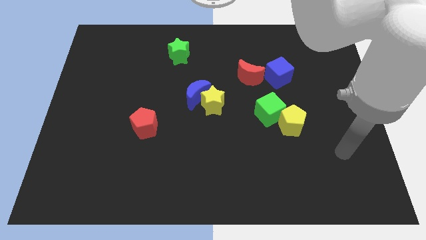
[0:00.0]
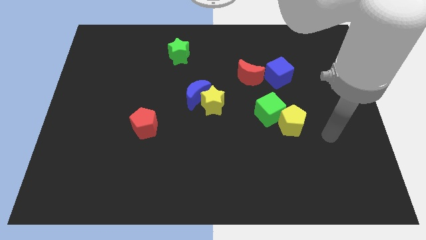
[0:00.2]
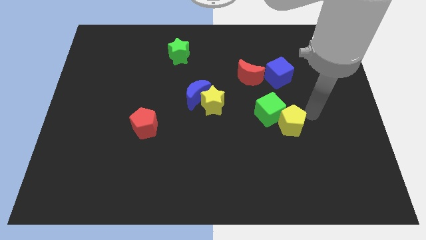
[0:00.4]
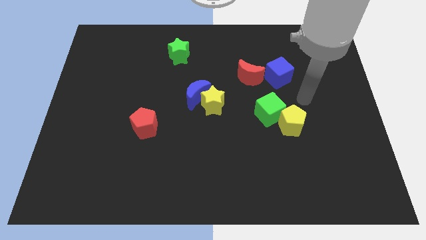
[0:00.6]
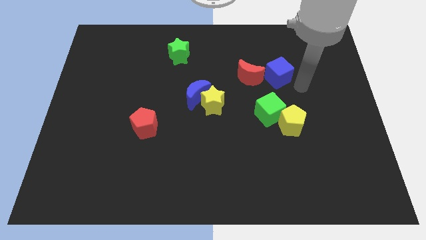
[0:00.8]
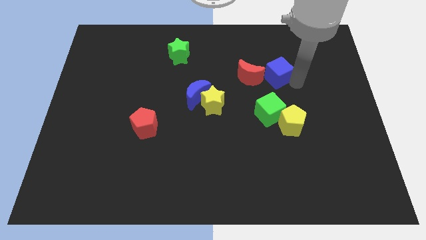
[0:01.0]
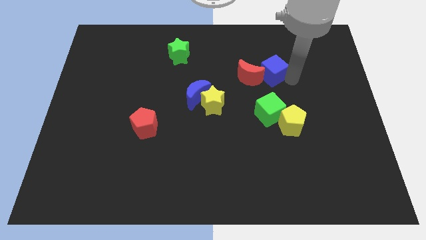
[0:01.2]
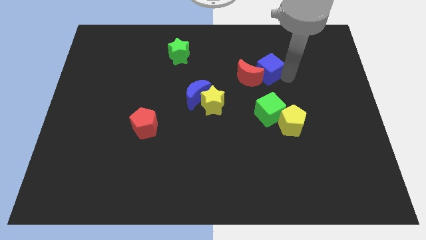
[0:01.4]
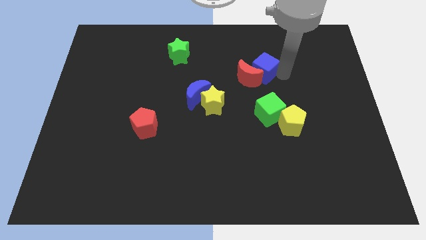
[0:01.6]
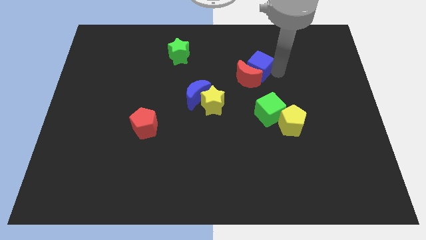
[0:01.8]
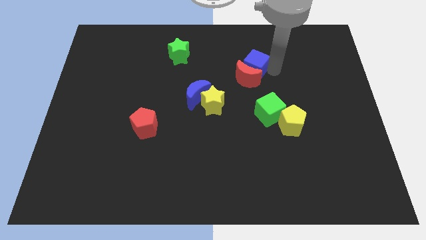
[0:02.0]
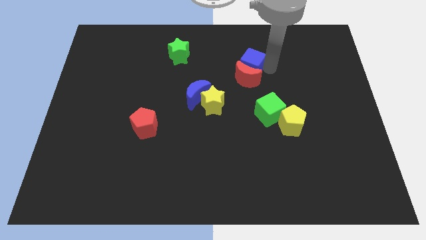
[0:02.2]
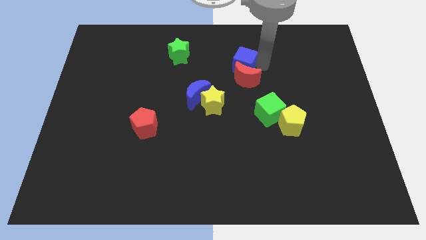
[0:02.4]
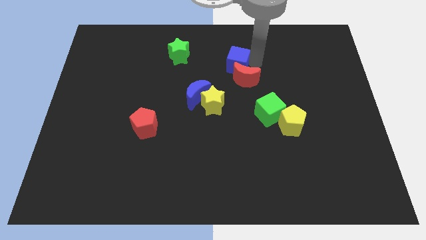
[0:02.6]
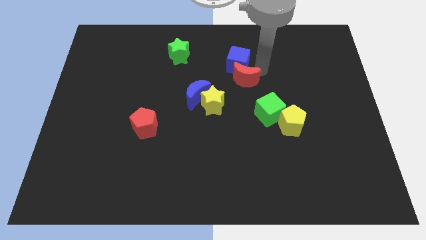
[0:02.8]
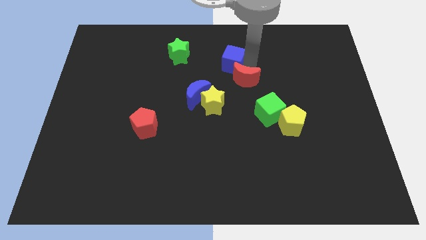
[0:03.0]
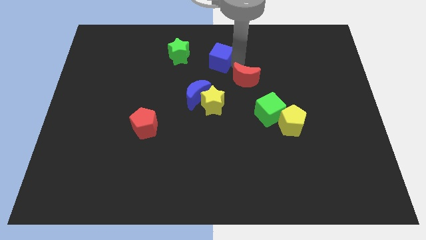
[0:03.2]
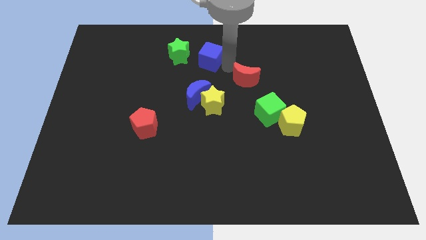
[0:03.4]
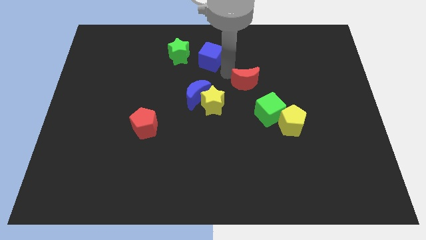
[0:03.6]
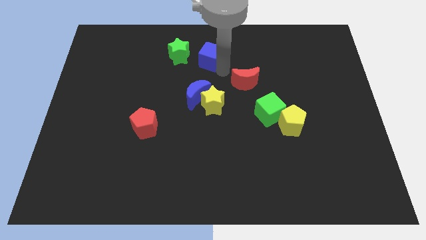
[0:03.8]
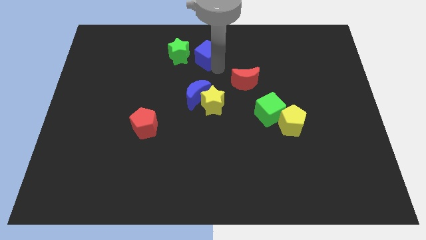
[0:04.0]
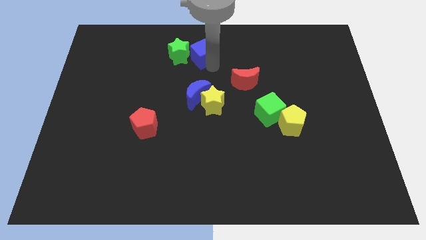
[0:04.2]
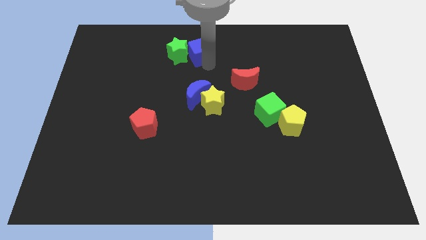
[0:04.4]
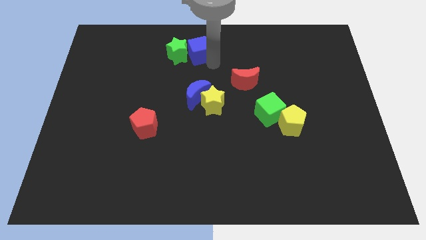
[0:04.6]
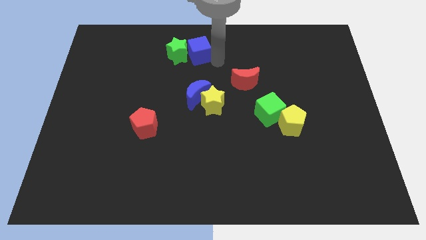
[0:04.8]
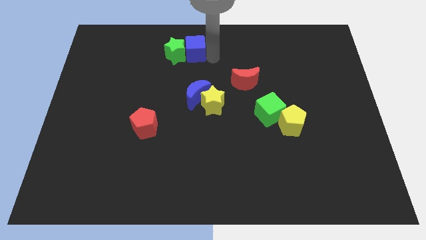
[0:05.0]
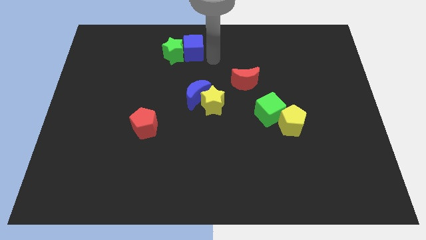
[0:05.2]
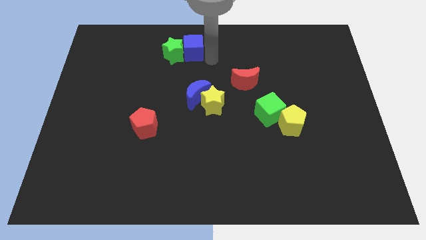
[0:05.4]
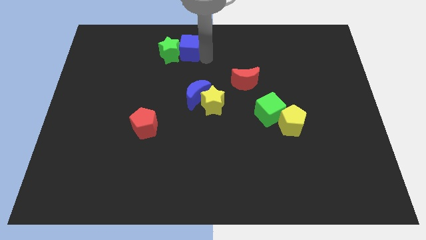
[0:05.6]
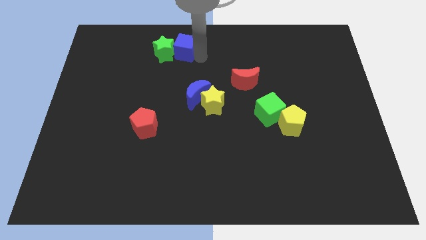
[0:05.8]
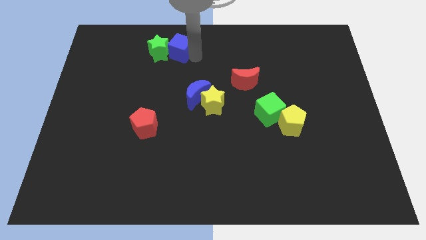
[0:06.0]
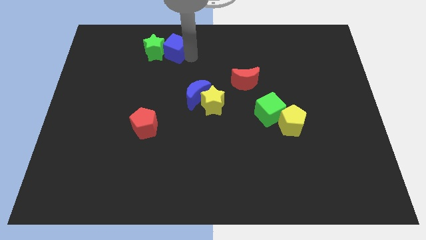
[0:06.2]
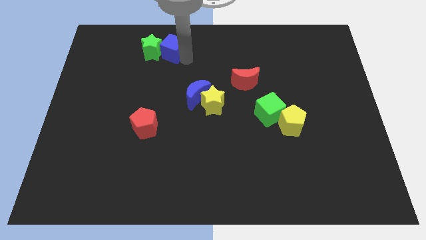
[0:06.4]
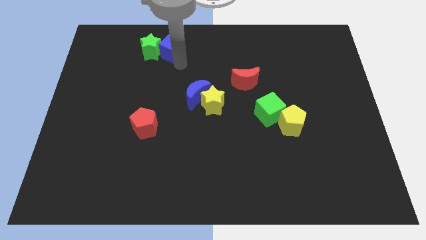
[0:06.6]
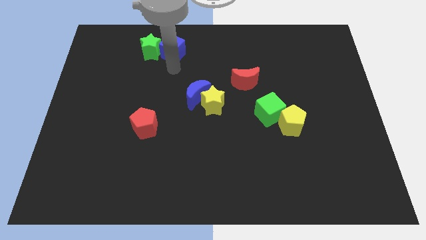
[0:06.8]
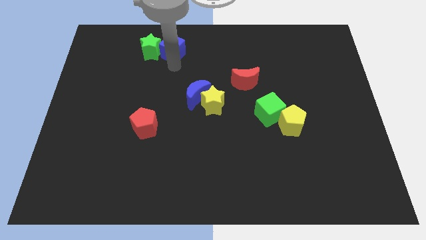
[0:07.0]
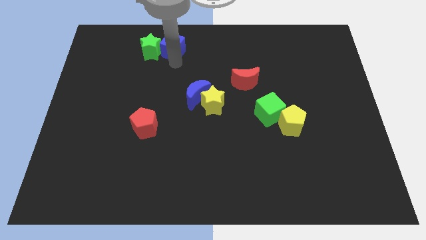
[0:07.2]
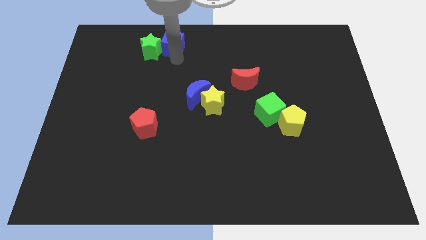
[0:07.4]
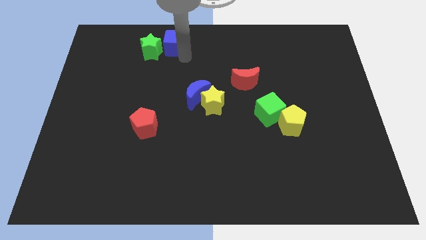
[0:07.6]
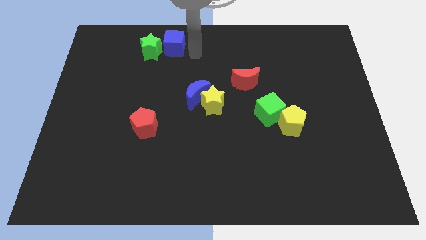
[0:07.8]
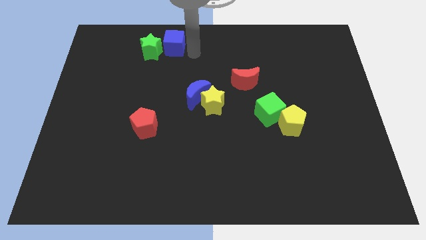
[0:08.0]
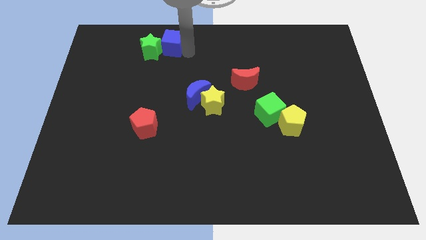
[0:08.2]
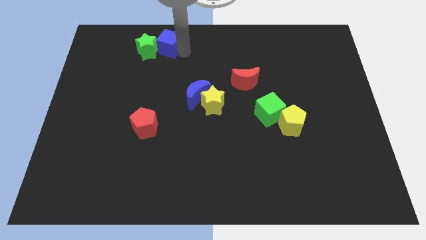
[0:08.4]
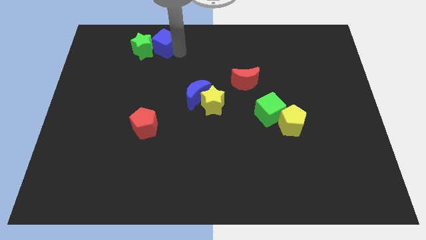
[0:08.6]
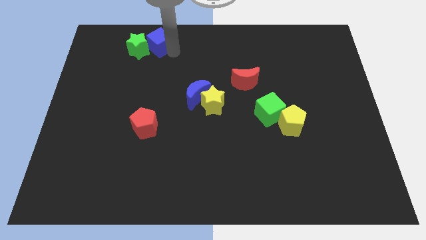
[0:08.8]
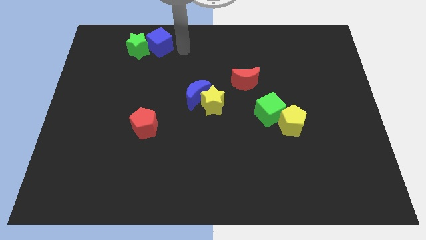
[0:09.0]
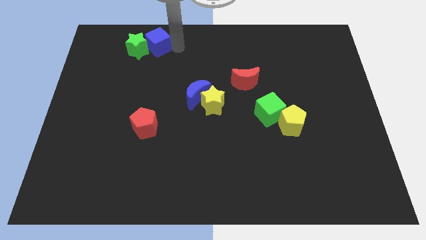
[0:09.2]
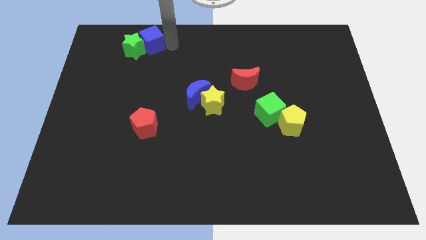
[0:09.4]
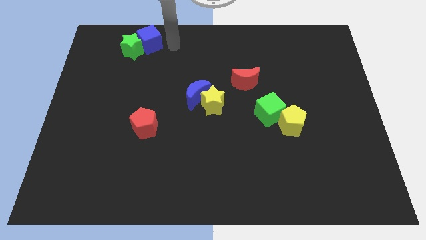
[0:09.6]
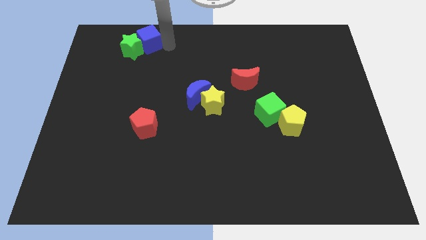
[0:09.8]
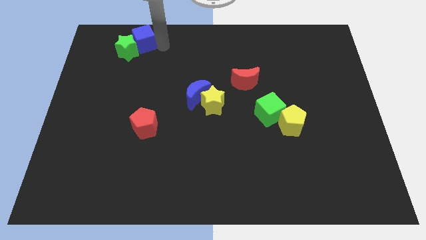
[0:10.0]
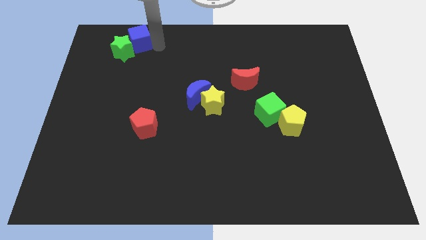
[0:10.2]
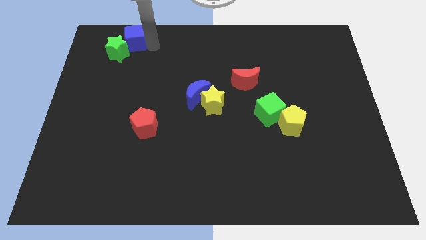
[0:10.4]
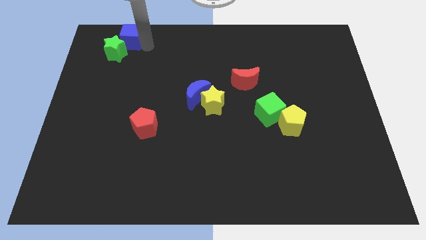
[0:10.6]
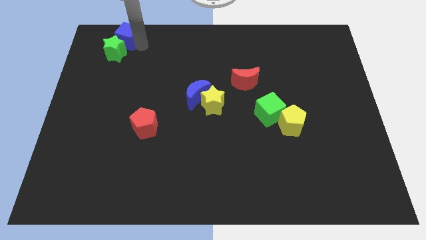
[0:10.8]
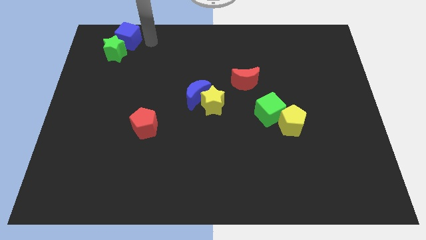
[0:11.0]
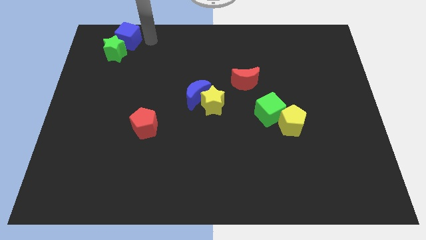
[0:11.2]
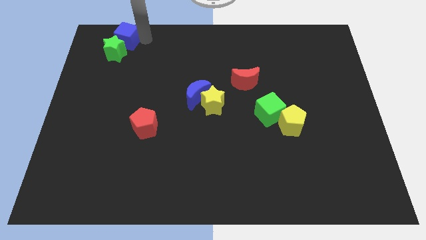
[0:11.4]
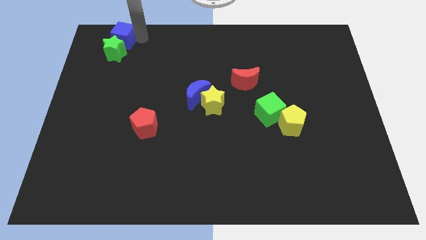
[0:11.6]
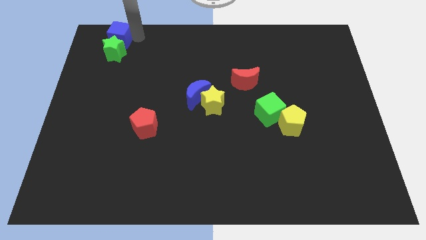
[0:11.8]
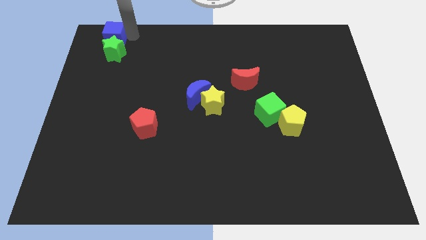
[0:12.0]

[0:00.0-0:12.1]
put the blue cube to the top left corner

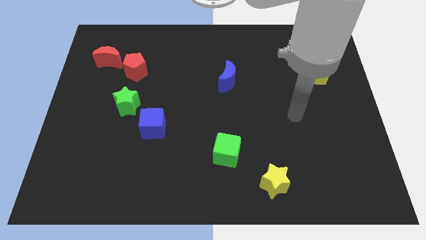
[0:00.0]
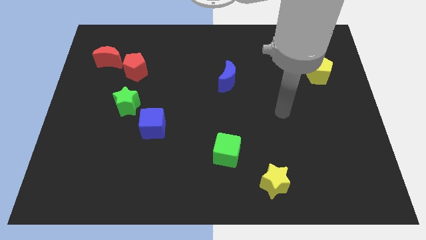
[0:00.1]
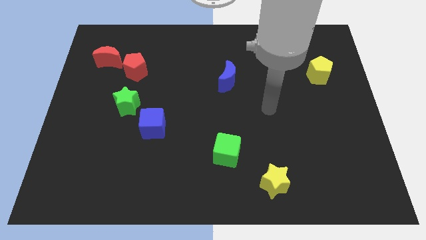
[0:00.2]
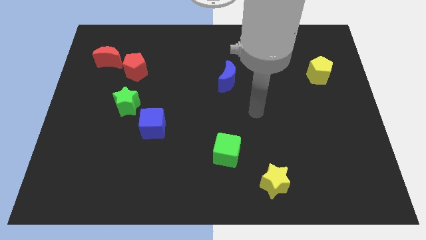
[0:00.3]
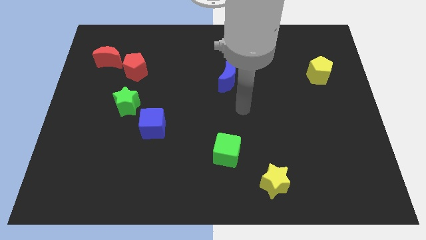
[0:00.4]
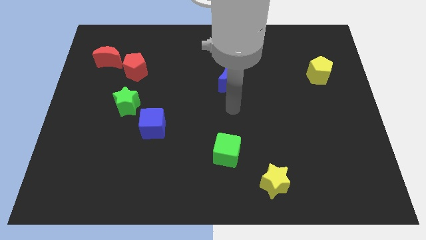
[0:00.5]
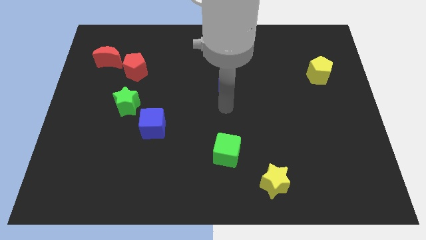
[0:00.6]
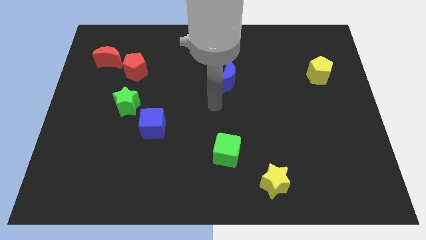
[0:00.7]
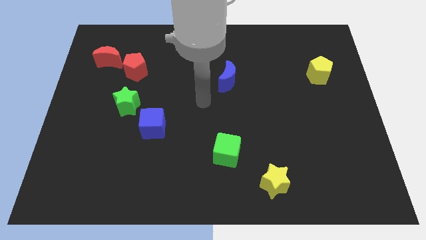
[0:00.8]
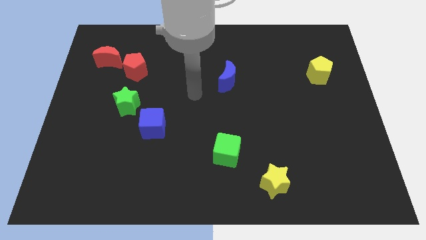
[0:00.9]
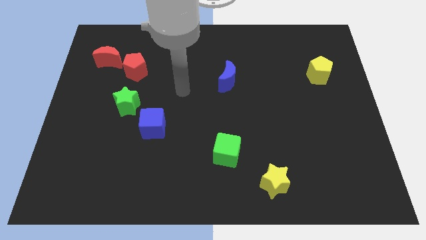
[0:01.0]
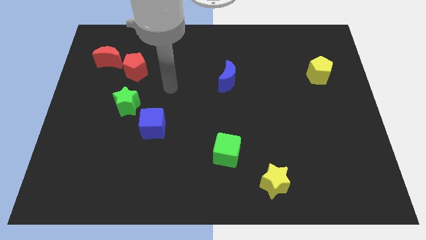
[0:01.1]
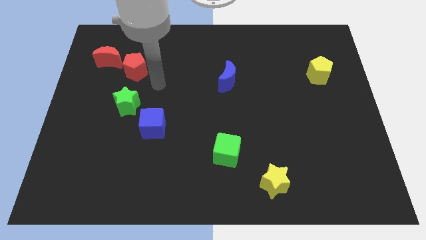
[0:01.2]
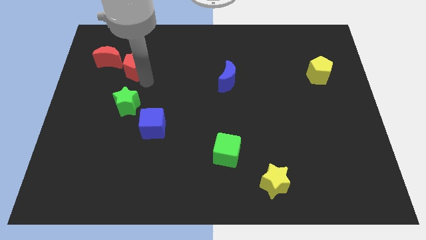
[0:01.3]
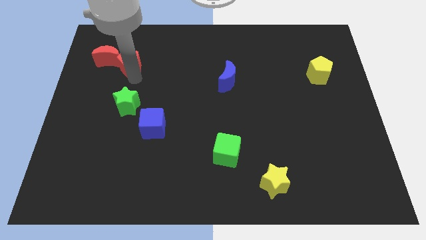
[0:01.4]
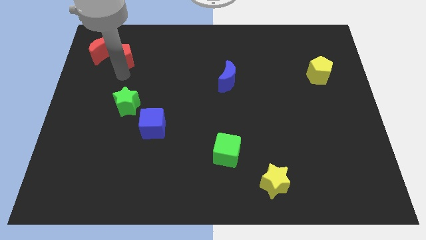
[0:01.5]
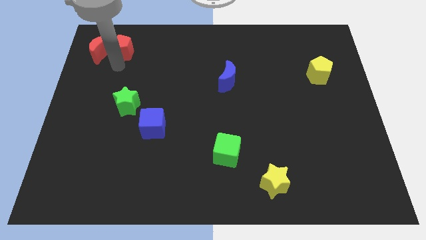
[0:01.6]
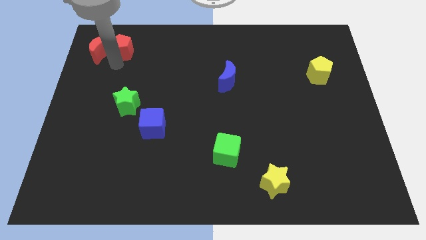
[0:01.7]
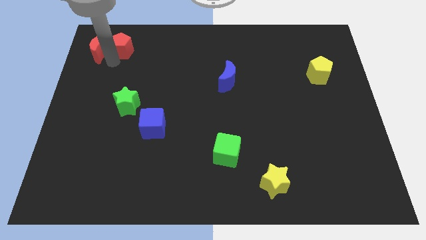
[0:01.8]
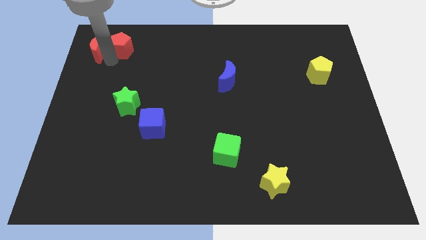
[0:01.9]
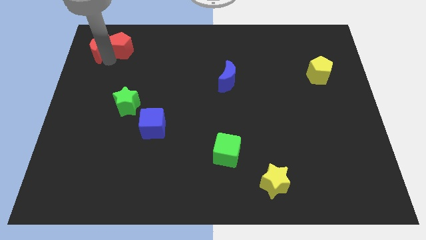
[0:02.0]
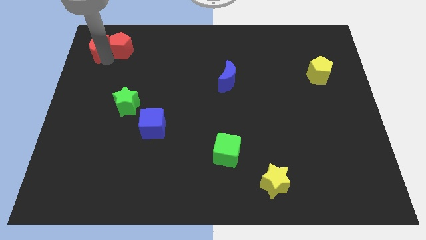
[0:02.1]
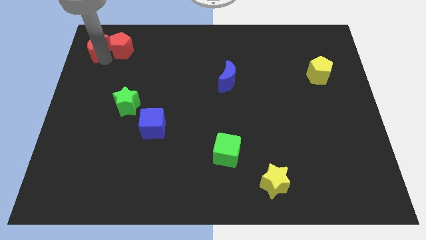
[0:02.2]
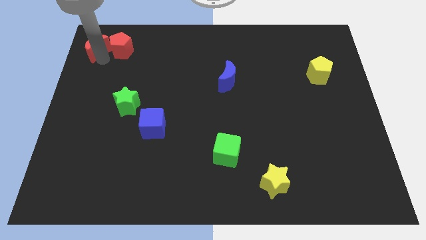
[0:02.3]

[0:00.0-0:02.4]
put the red moon to the upper left corner
